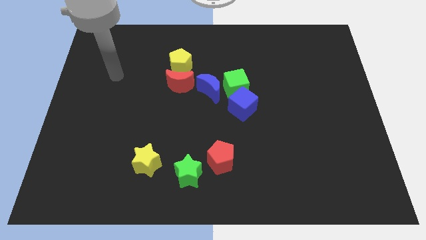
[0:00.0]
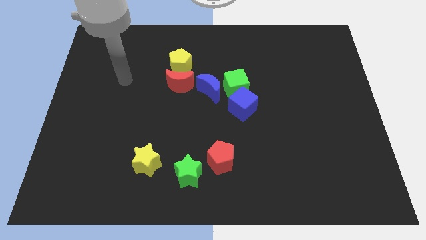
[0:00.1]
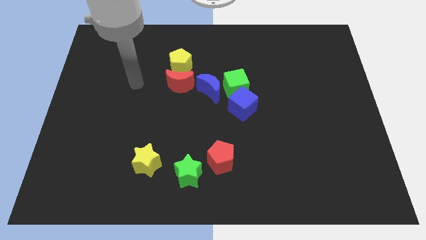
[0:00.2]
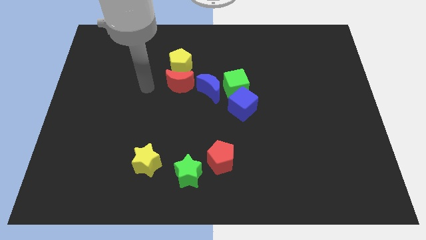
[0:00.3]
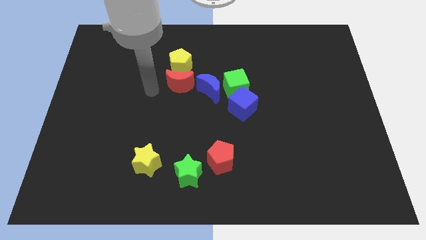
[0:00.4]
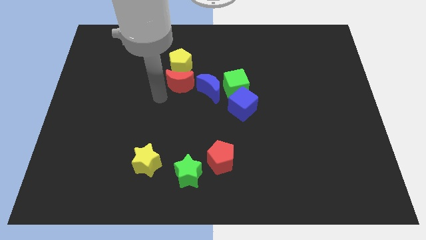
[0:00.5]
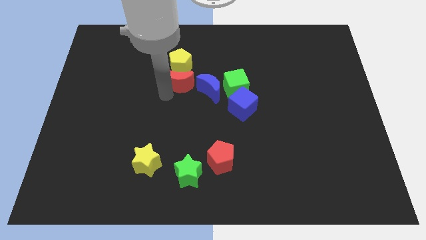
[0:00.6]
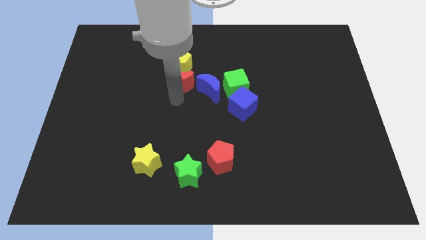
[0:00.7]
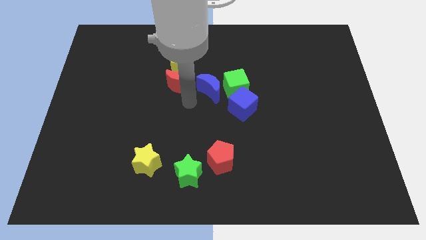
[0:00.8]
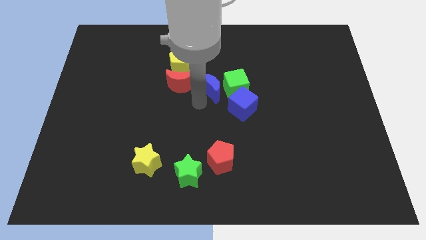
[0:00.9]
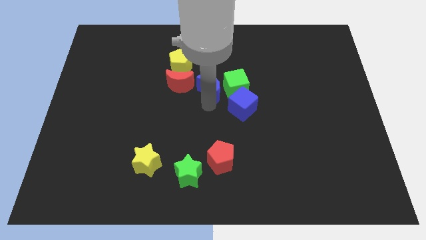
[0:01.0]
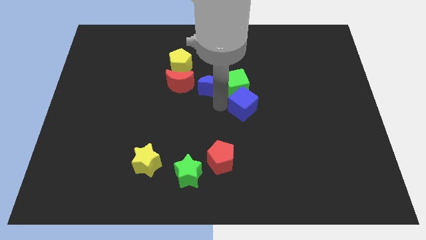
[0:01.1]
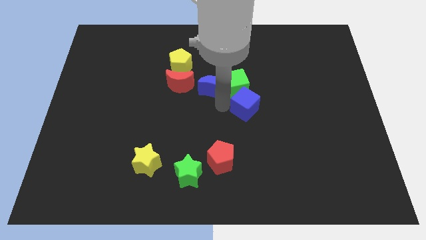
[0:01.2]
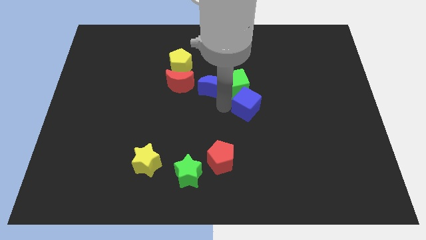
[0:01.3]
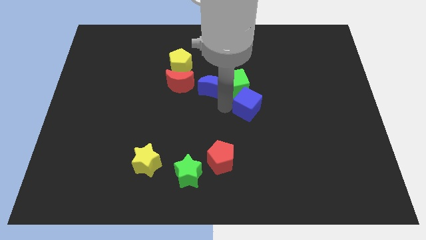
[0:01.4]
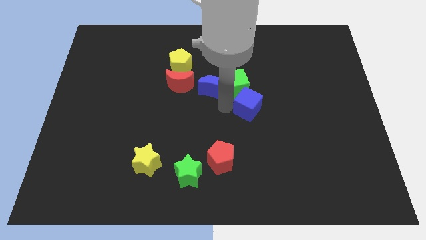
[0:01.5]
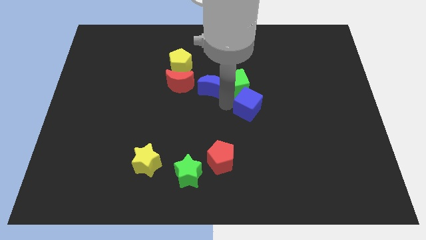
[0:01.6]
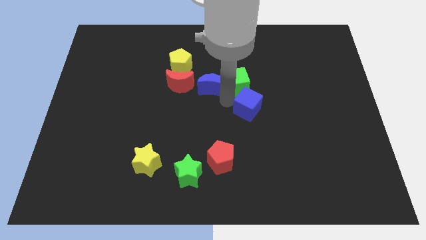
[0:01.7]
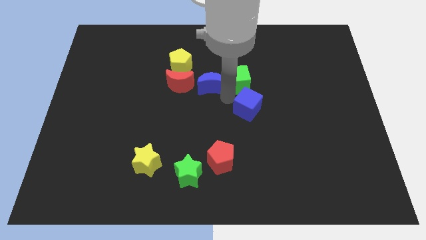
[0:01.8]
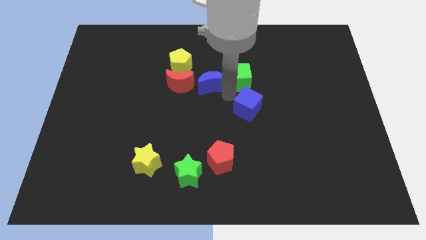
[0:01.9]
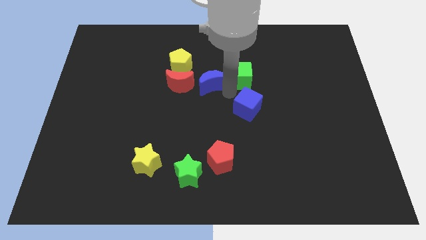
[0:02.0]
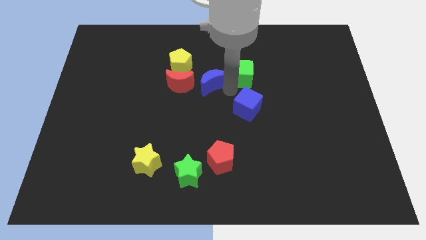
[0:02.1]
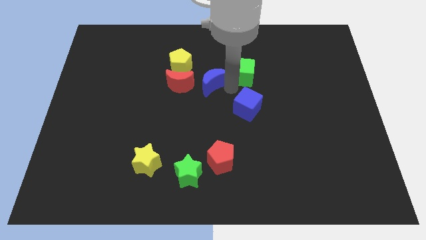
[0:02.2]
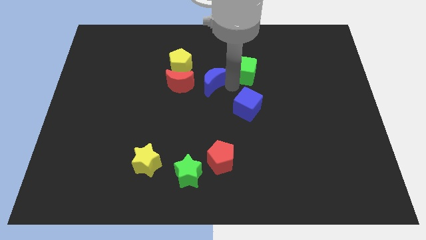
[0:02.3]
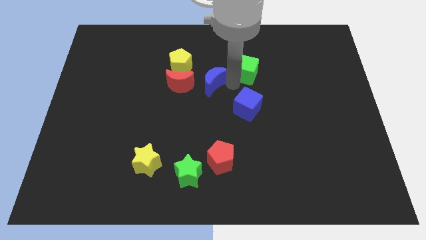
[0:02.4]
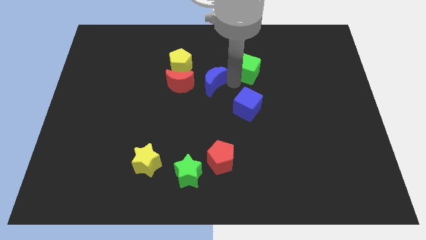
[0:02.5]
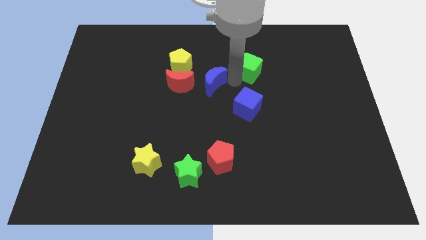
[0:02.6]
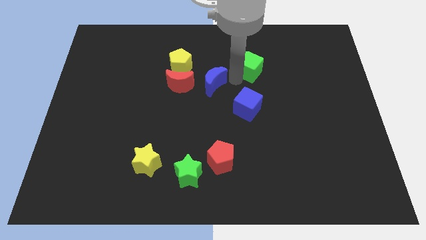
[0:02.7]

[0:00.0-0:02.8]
move the green cube away from the blue cube and blue moon

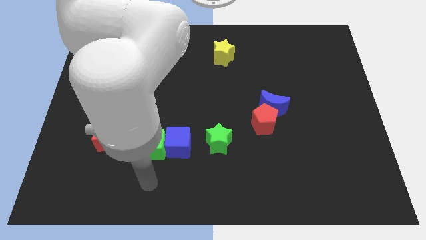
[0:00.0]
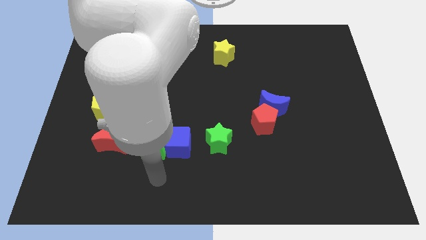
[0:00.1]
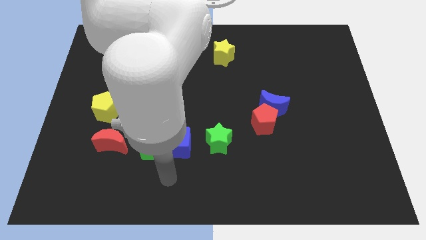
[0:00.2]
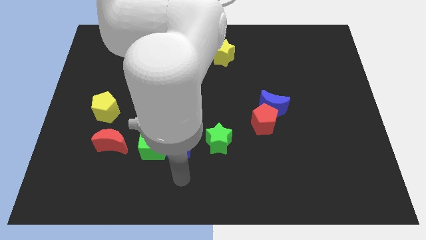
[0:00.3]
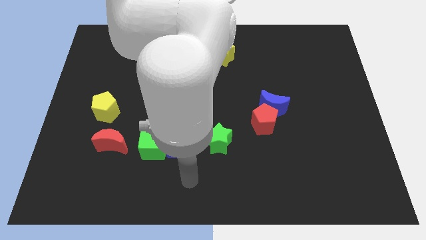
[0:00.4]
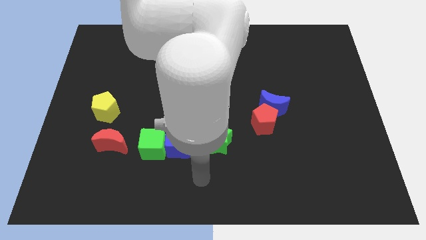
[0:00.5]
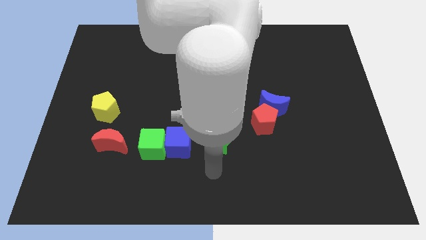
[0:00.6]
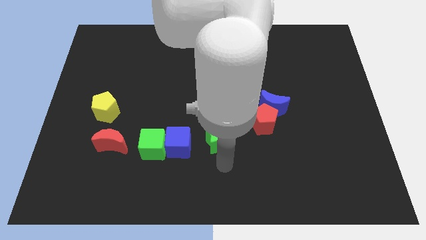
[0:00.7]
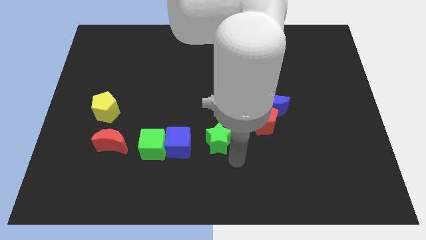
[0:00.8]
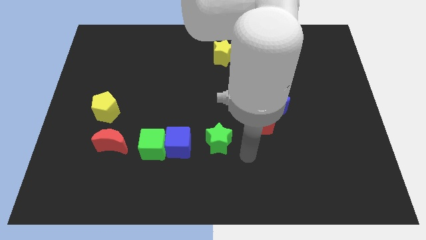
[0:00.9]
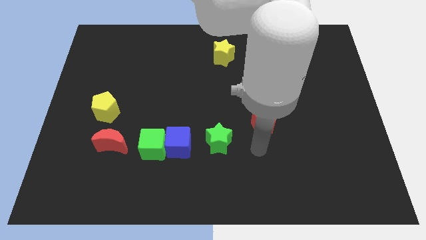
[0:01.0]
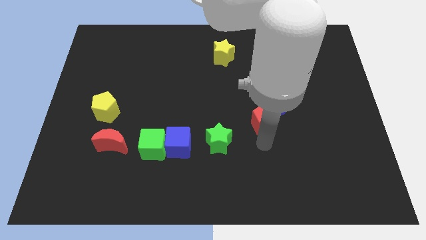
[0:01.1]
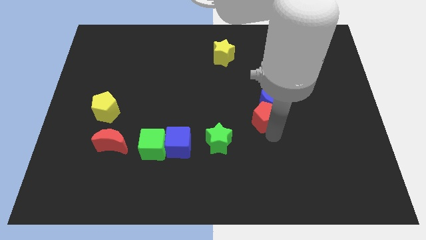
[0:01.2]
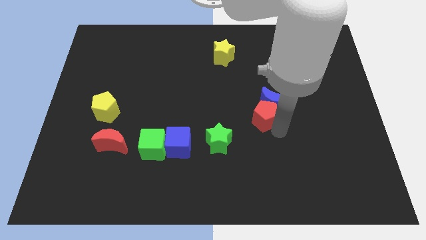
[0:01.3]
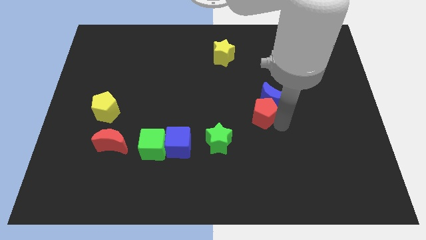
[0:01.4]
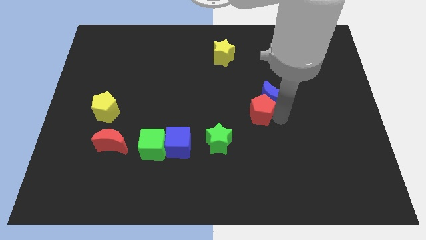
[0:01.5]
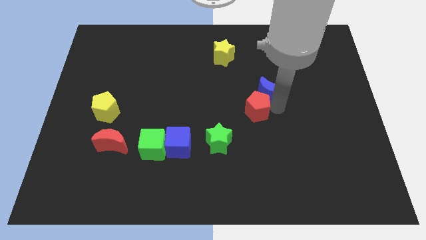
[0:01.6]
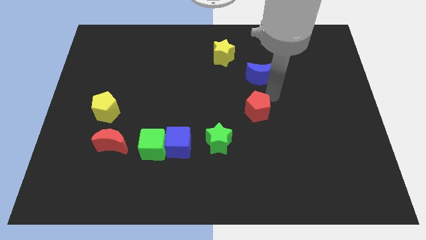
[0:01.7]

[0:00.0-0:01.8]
pull the red pentagon apart from the blue moon

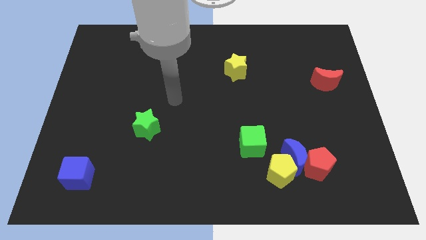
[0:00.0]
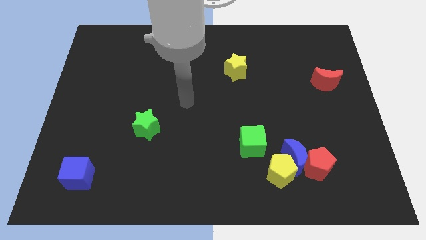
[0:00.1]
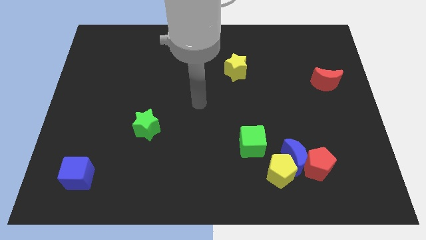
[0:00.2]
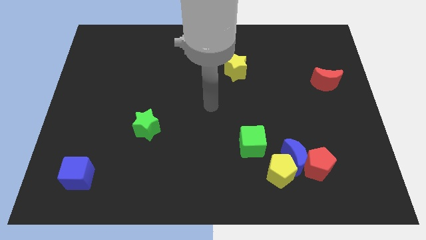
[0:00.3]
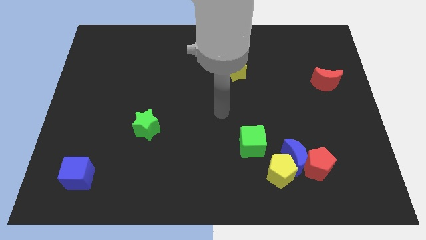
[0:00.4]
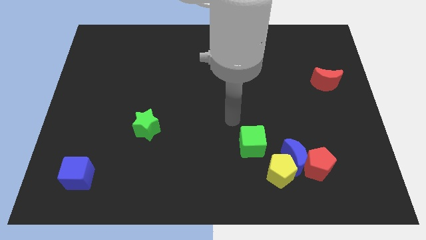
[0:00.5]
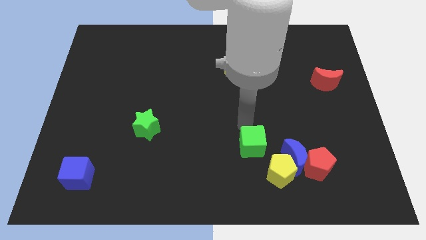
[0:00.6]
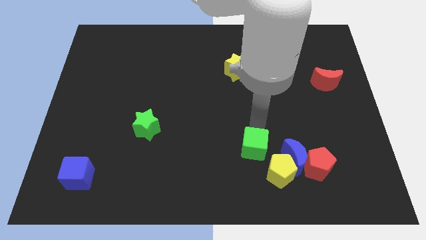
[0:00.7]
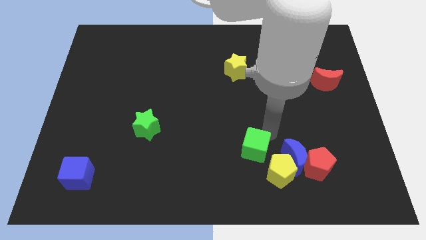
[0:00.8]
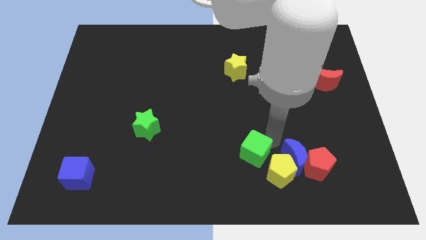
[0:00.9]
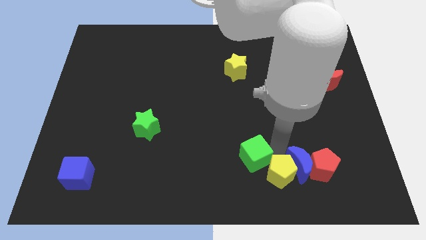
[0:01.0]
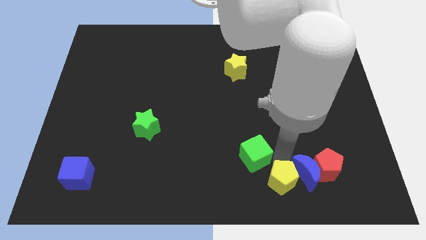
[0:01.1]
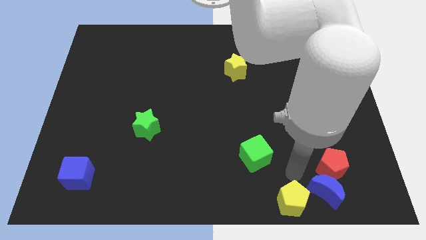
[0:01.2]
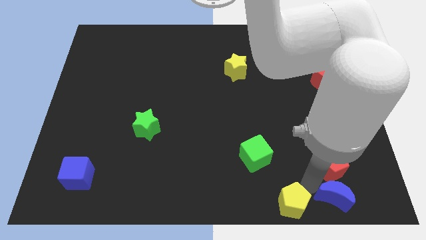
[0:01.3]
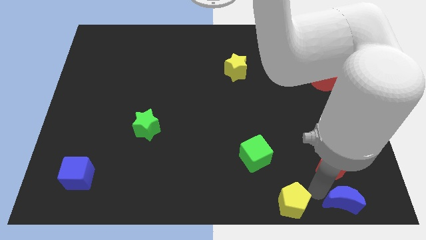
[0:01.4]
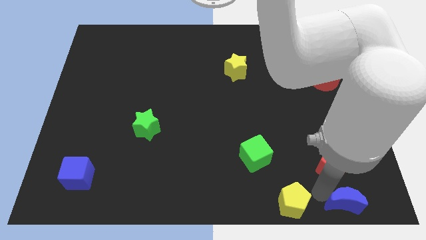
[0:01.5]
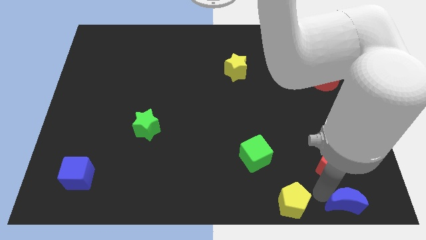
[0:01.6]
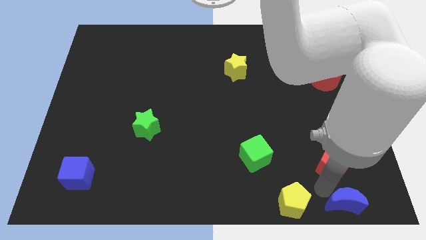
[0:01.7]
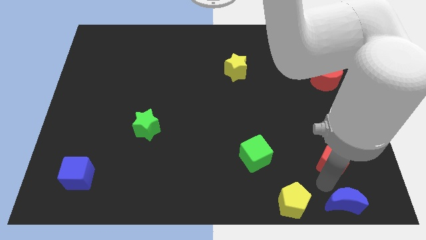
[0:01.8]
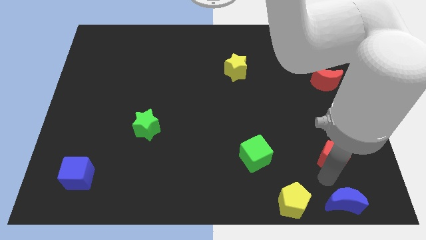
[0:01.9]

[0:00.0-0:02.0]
move the red pentagon away from the blue moon and yellow pentagon

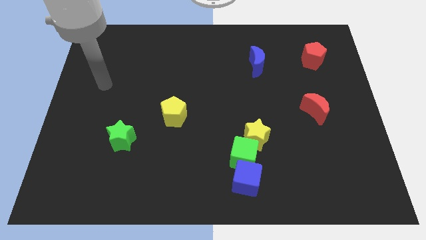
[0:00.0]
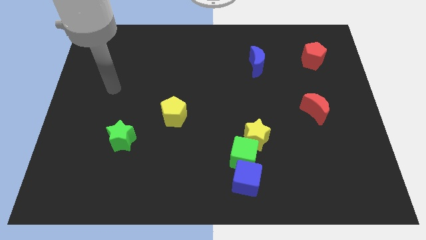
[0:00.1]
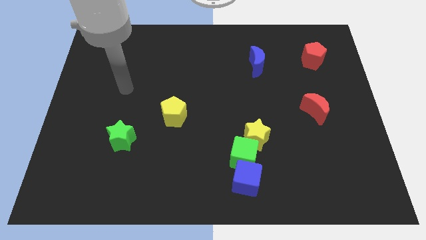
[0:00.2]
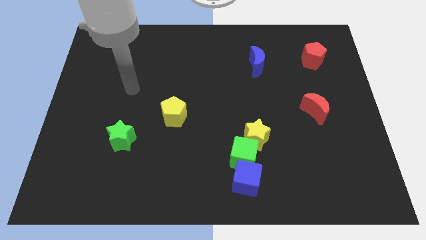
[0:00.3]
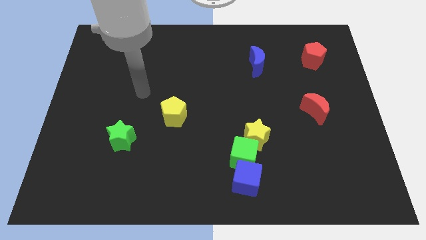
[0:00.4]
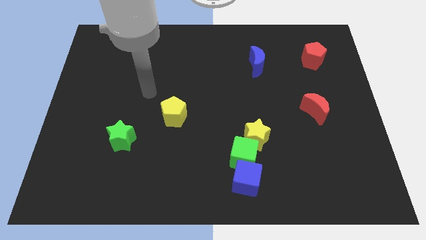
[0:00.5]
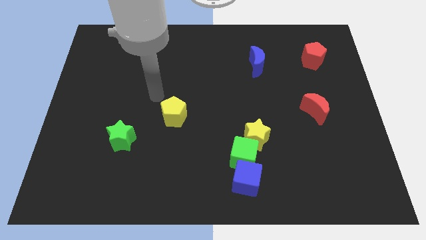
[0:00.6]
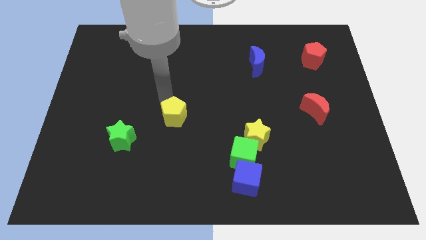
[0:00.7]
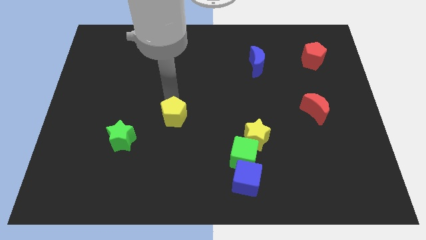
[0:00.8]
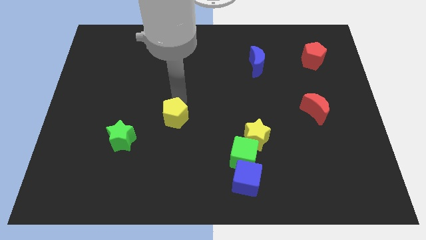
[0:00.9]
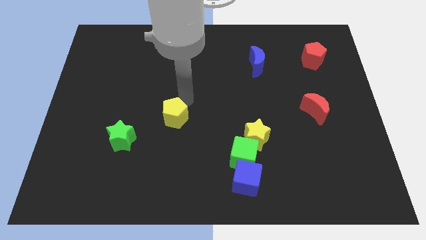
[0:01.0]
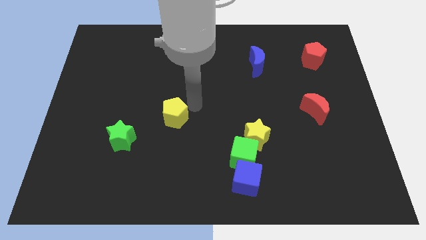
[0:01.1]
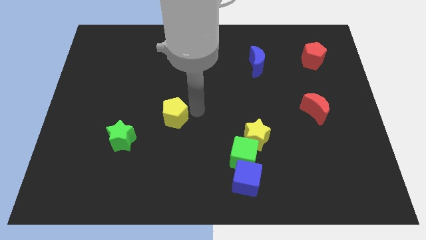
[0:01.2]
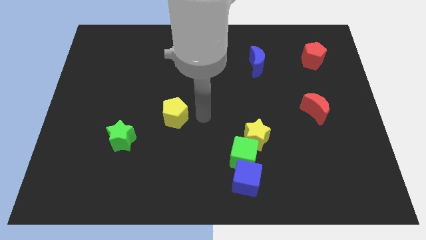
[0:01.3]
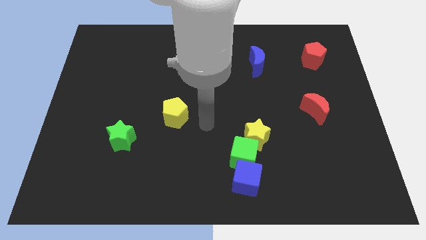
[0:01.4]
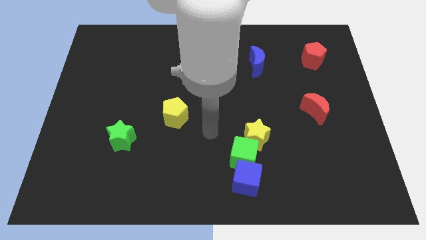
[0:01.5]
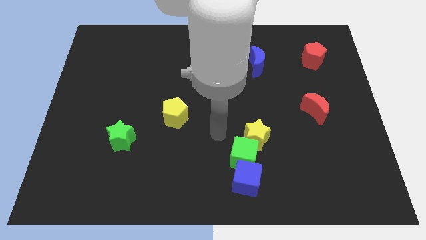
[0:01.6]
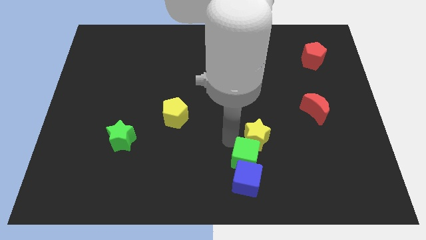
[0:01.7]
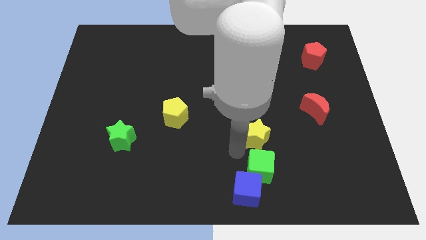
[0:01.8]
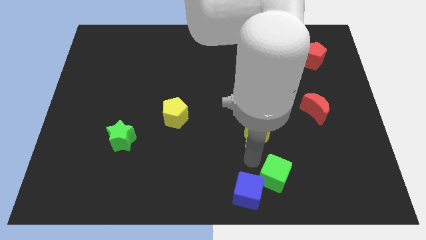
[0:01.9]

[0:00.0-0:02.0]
pull the yellow star apart from the green cube

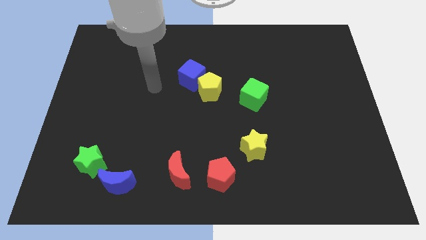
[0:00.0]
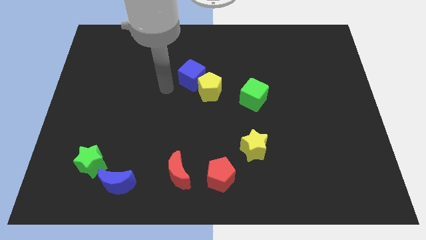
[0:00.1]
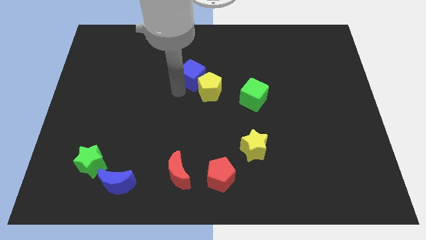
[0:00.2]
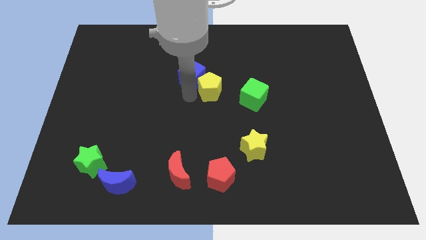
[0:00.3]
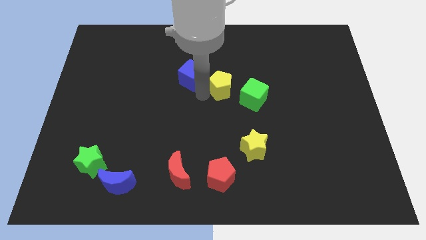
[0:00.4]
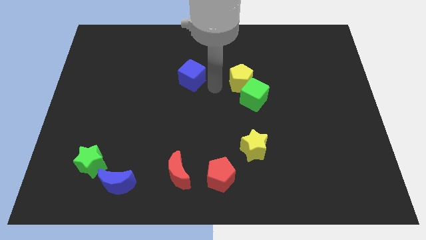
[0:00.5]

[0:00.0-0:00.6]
pull the blue cube apart from the yellow pentagon
